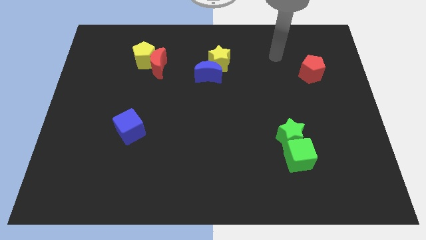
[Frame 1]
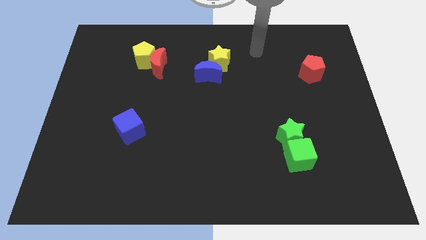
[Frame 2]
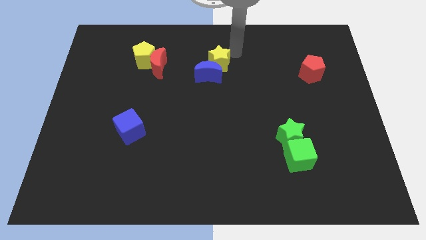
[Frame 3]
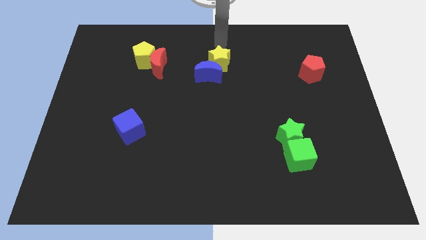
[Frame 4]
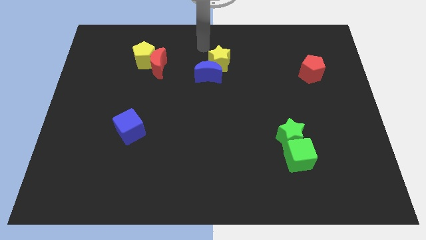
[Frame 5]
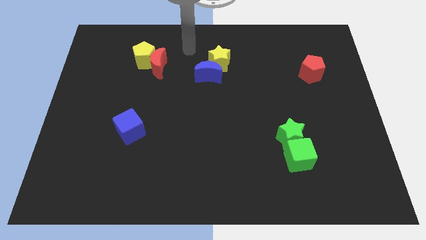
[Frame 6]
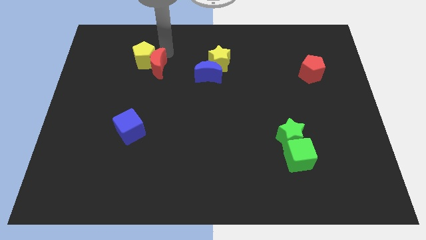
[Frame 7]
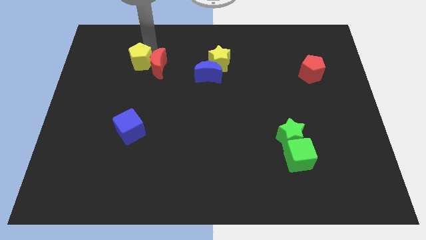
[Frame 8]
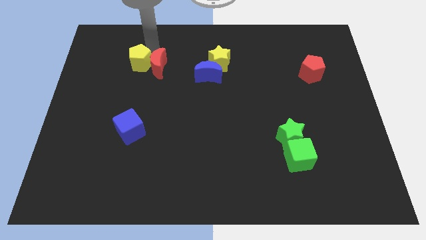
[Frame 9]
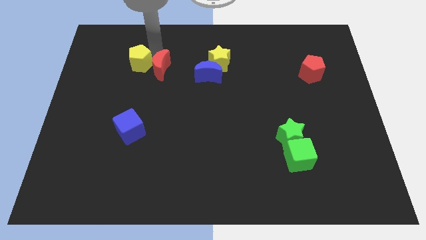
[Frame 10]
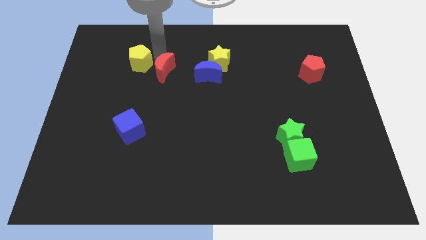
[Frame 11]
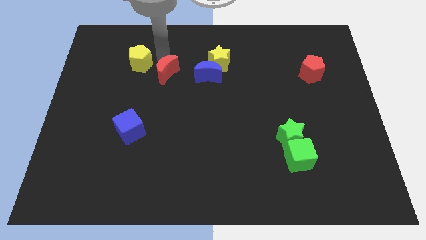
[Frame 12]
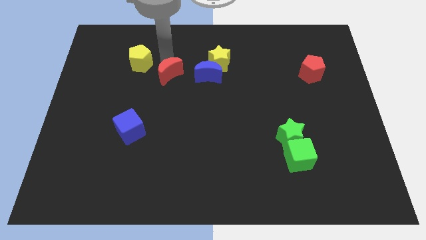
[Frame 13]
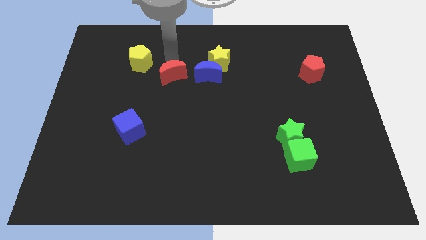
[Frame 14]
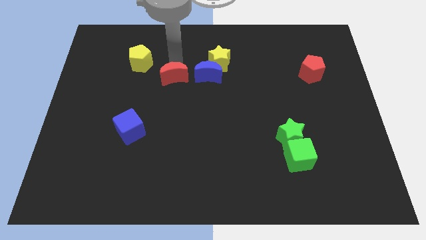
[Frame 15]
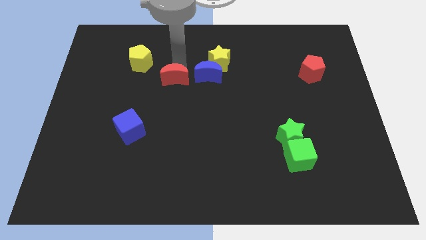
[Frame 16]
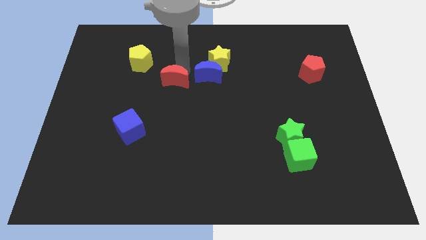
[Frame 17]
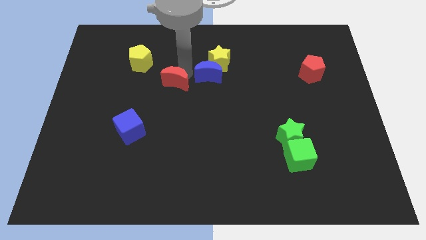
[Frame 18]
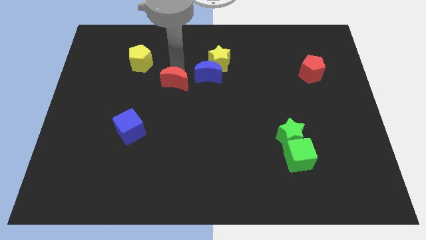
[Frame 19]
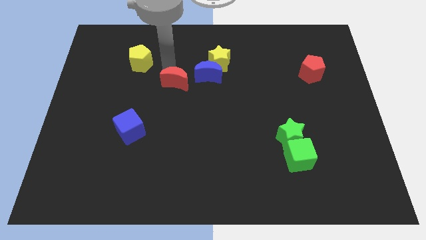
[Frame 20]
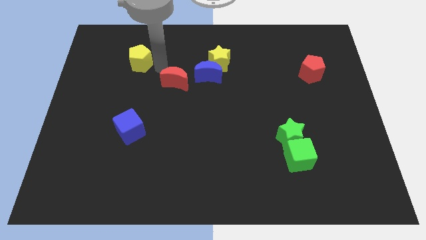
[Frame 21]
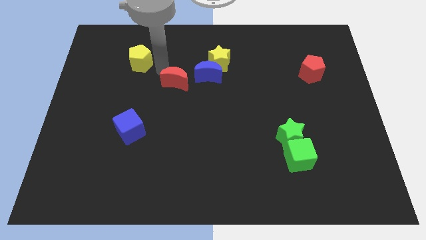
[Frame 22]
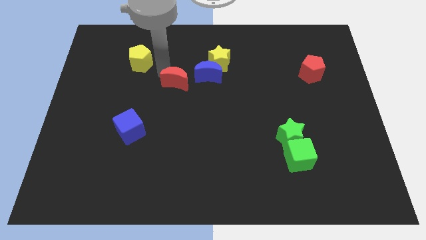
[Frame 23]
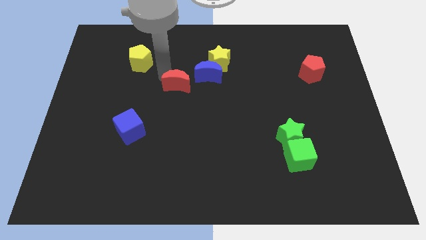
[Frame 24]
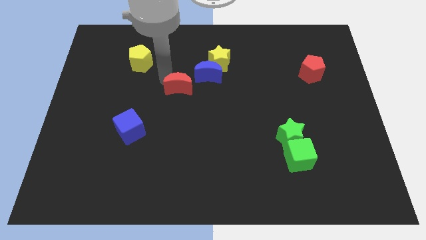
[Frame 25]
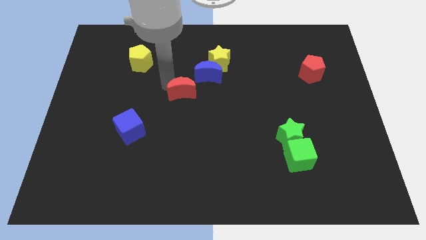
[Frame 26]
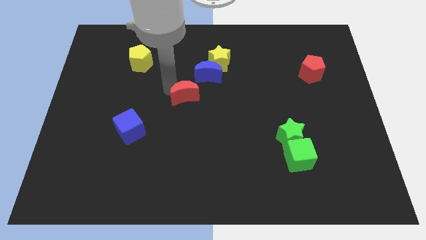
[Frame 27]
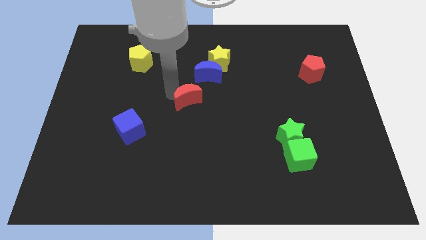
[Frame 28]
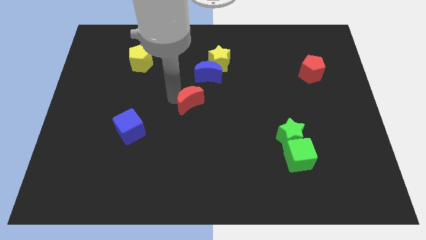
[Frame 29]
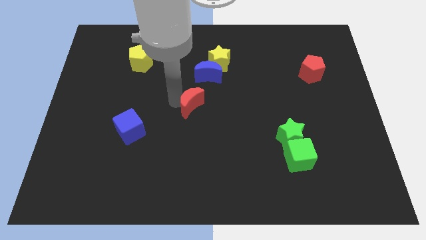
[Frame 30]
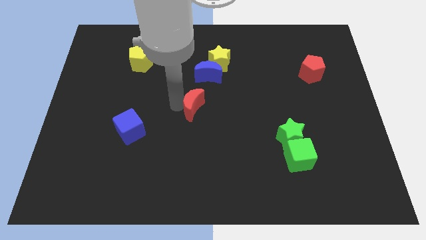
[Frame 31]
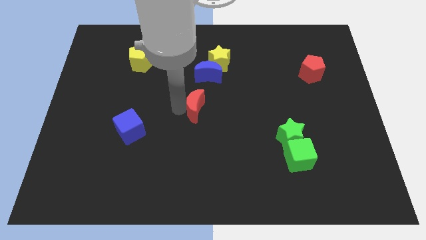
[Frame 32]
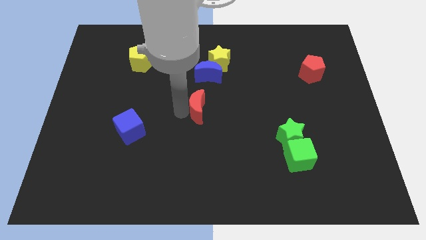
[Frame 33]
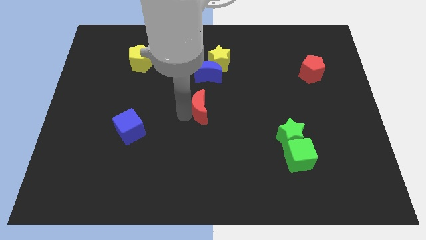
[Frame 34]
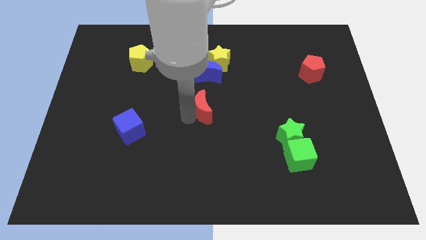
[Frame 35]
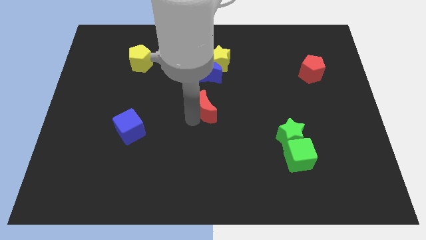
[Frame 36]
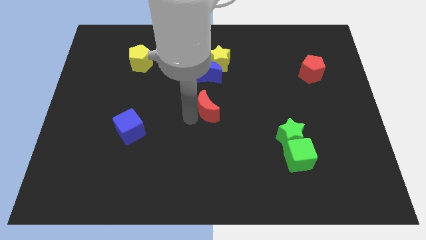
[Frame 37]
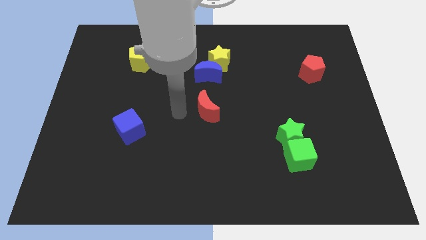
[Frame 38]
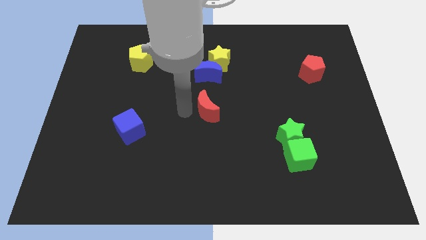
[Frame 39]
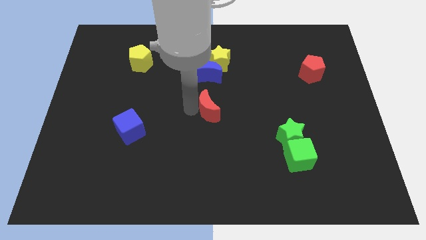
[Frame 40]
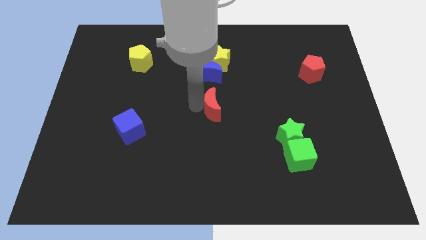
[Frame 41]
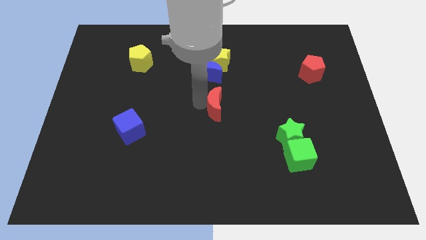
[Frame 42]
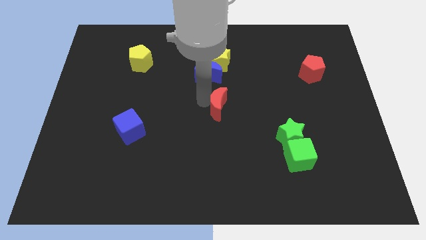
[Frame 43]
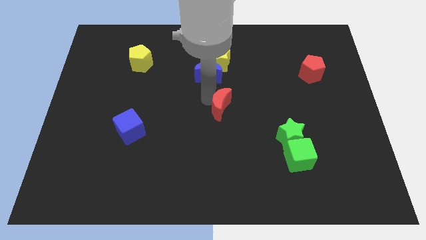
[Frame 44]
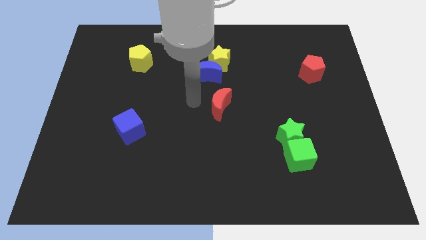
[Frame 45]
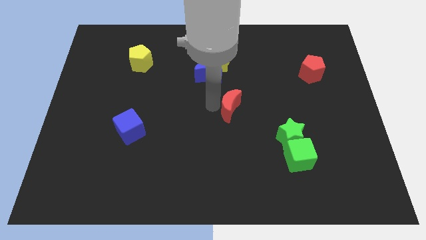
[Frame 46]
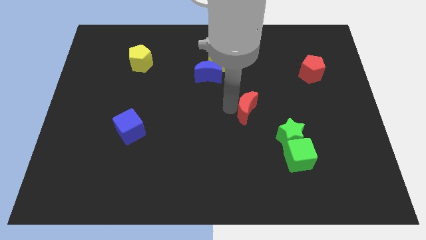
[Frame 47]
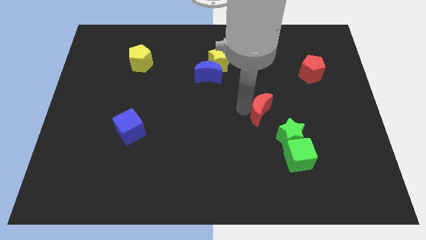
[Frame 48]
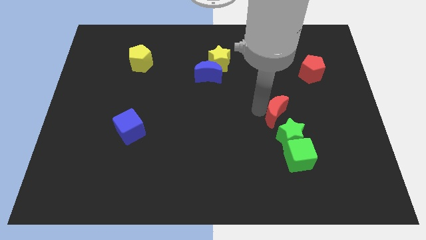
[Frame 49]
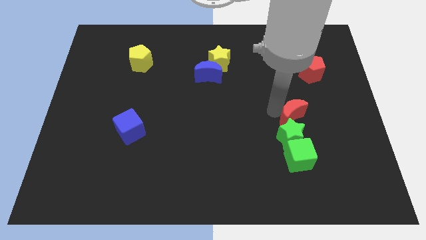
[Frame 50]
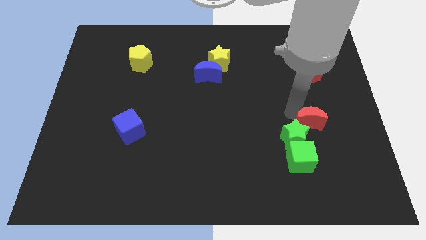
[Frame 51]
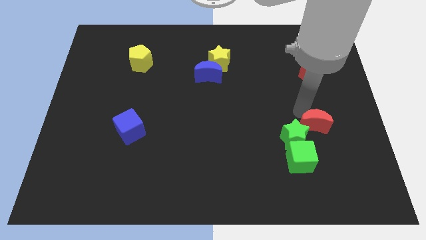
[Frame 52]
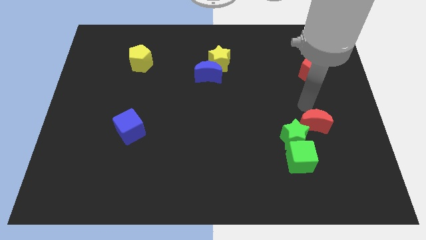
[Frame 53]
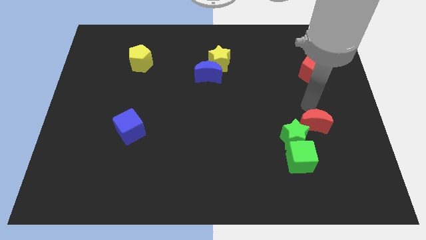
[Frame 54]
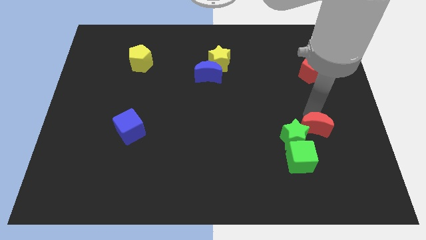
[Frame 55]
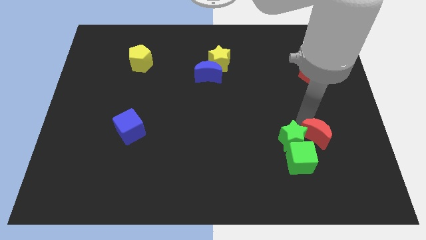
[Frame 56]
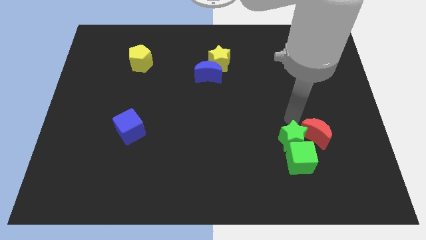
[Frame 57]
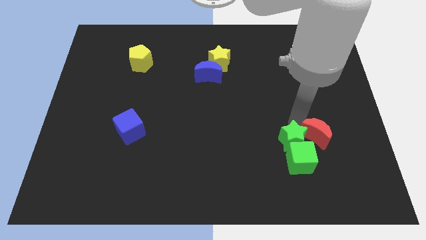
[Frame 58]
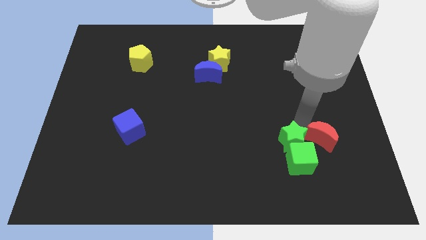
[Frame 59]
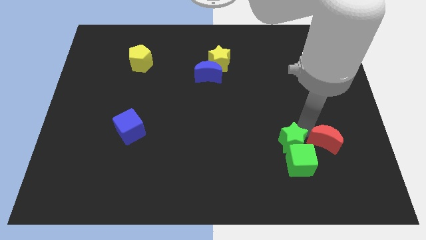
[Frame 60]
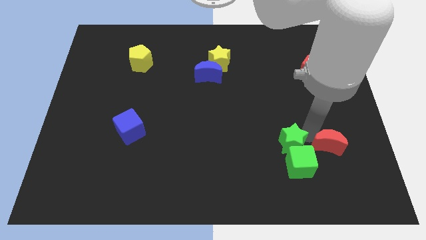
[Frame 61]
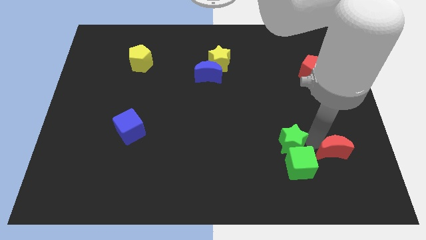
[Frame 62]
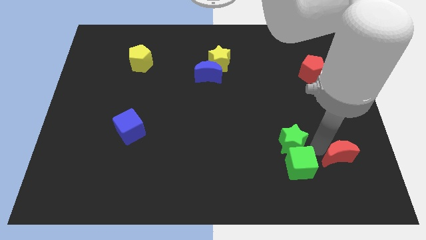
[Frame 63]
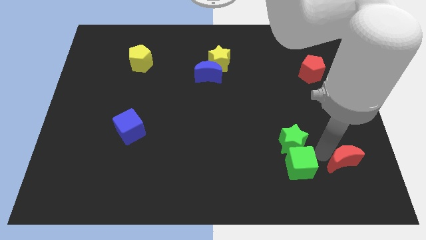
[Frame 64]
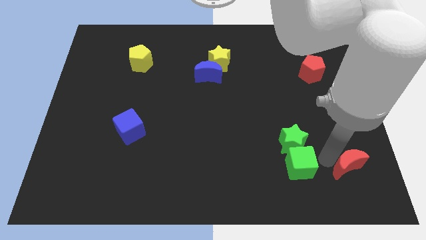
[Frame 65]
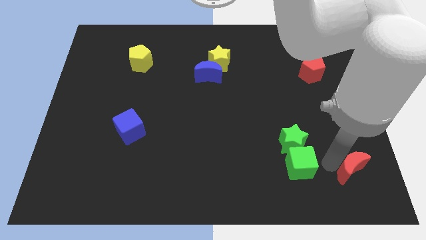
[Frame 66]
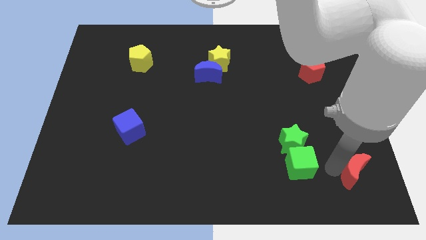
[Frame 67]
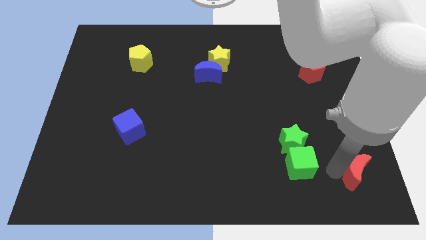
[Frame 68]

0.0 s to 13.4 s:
slide the red moon to the lower right corner
